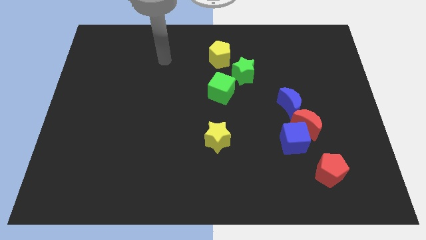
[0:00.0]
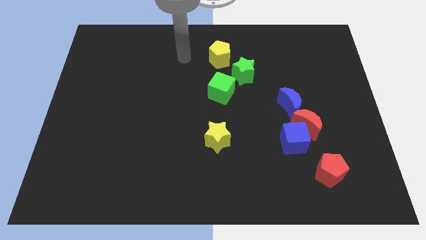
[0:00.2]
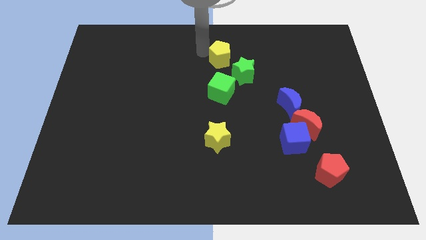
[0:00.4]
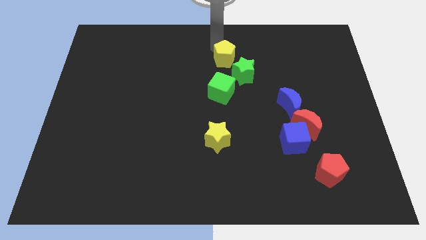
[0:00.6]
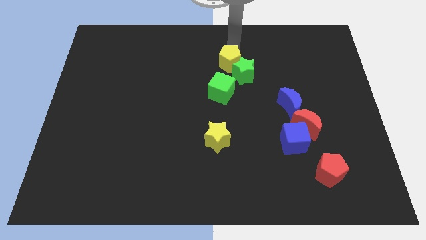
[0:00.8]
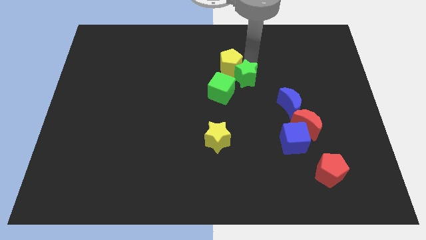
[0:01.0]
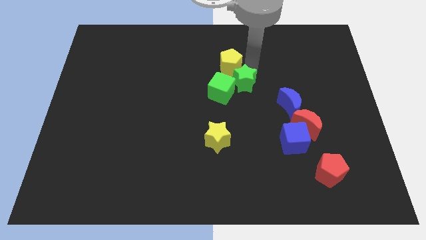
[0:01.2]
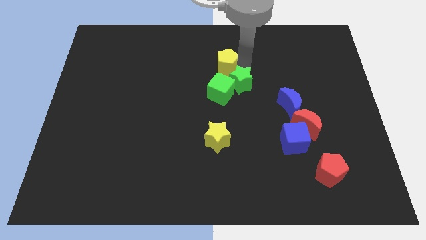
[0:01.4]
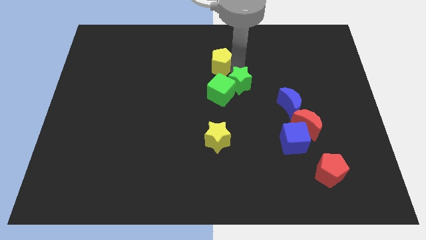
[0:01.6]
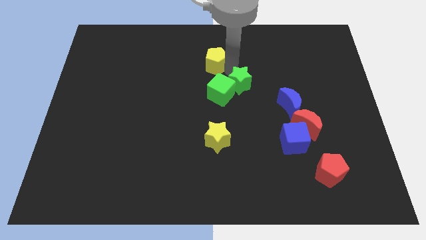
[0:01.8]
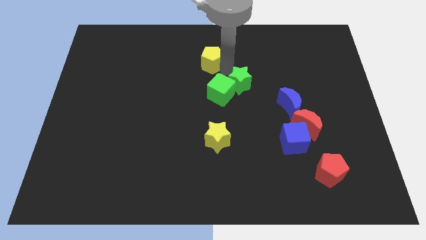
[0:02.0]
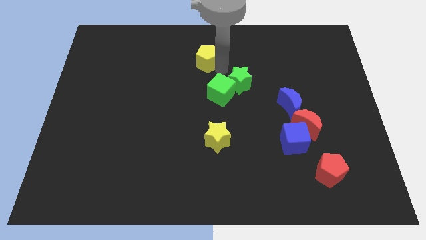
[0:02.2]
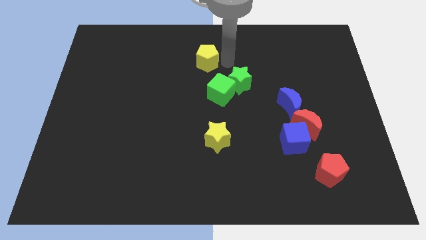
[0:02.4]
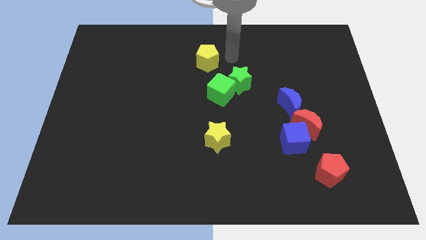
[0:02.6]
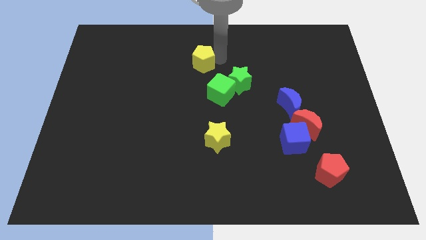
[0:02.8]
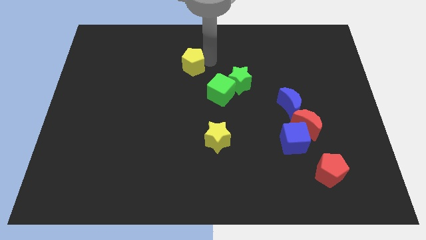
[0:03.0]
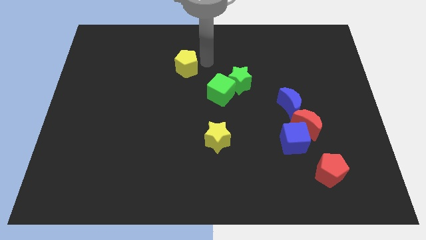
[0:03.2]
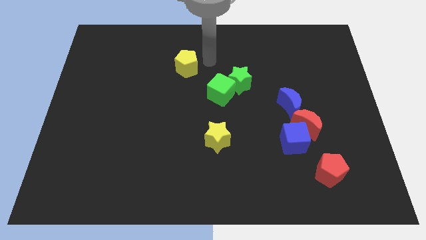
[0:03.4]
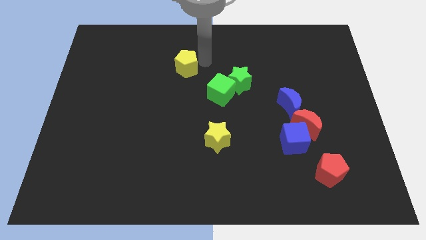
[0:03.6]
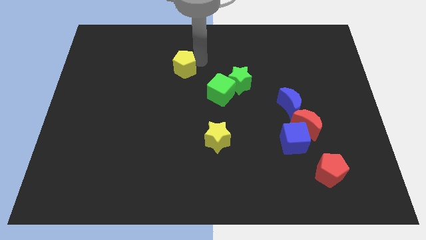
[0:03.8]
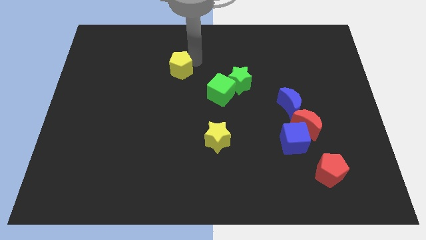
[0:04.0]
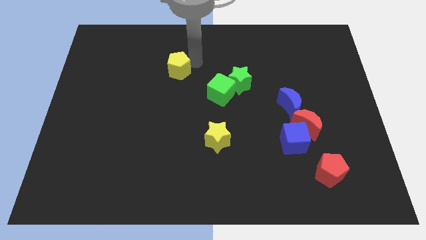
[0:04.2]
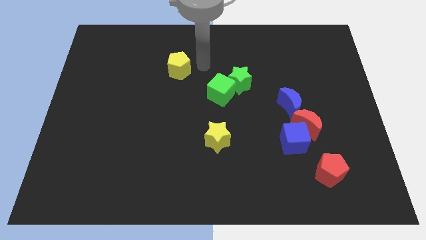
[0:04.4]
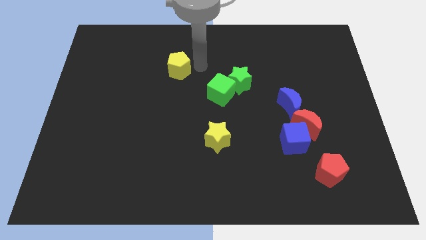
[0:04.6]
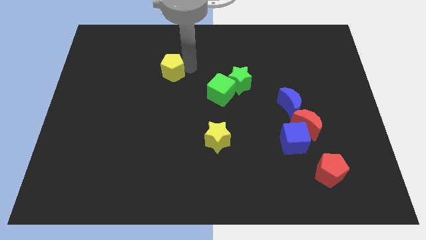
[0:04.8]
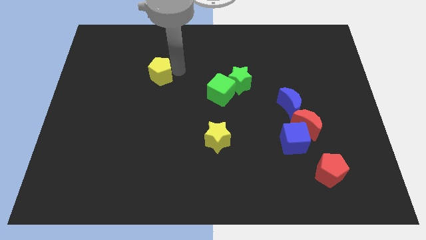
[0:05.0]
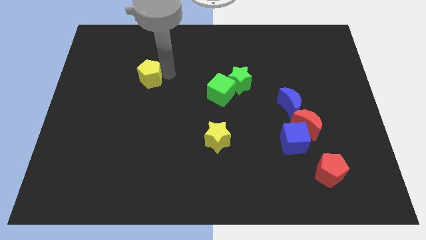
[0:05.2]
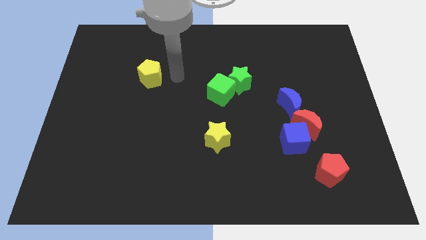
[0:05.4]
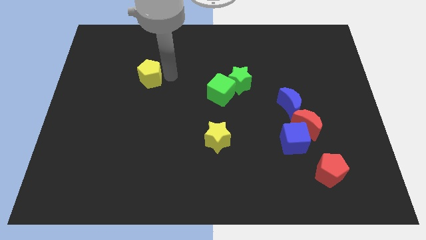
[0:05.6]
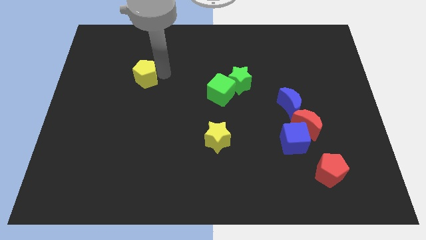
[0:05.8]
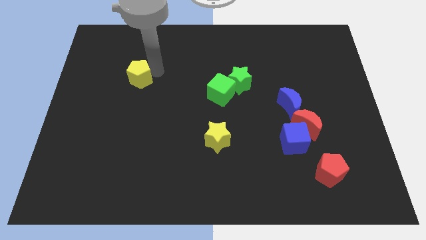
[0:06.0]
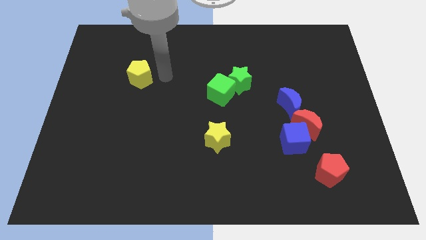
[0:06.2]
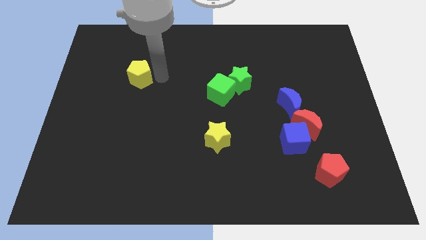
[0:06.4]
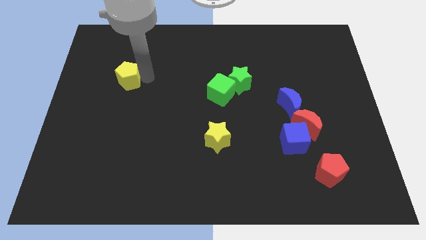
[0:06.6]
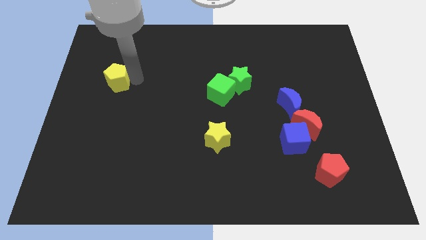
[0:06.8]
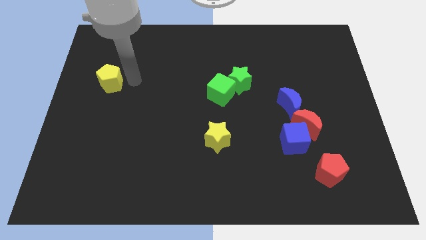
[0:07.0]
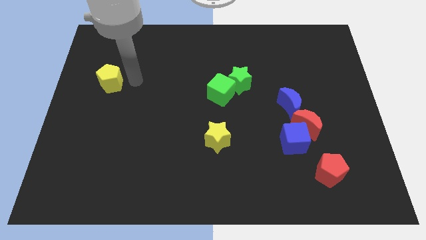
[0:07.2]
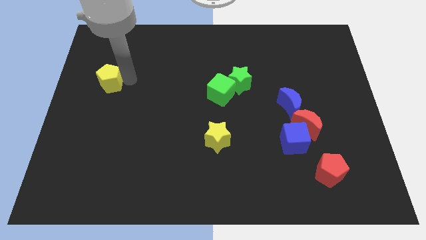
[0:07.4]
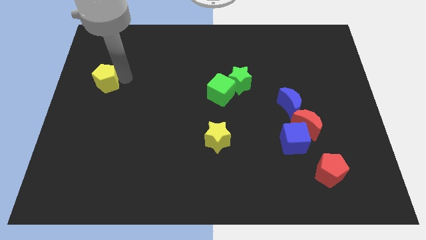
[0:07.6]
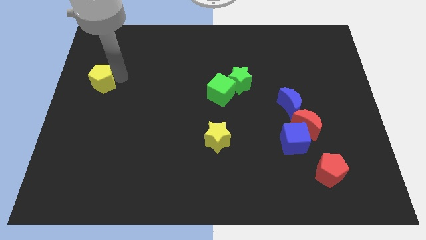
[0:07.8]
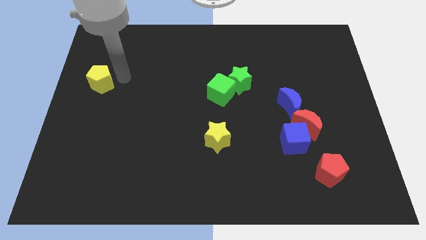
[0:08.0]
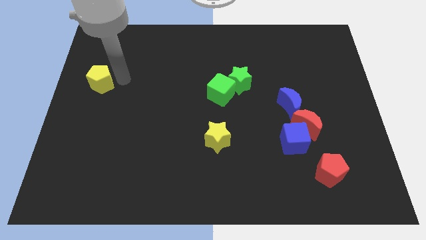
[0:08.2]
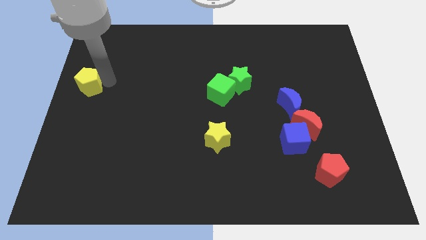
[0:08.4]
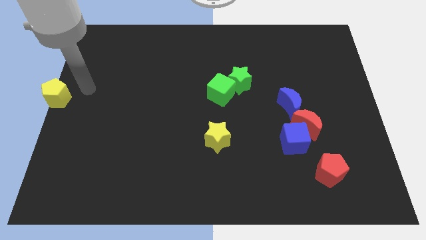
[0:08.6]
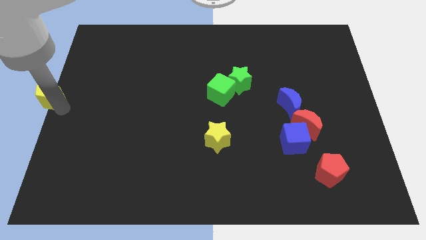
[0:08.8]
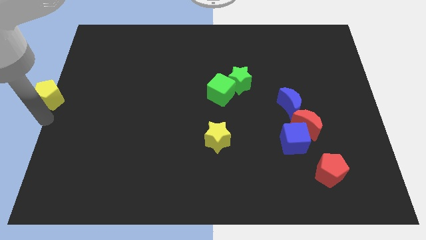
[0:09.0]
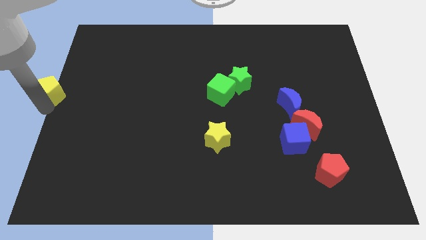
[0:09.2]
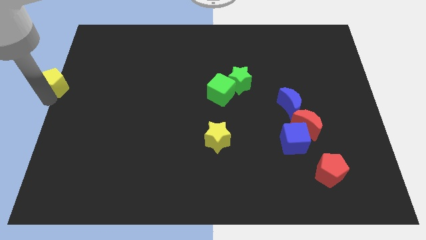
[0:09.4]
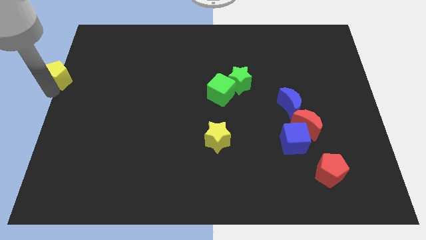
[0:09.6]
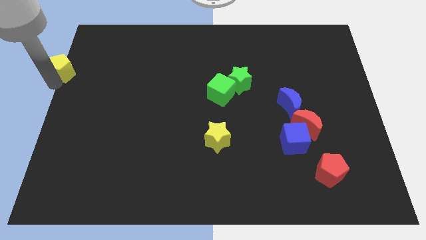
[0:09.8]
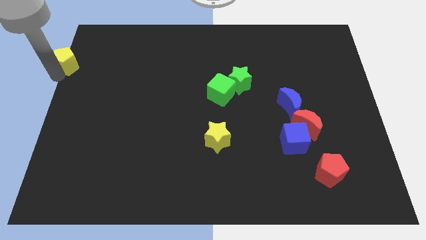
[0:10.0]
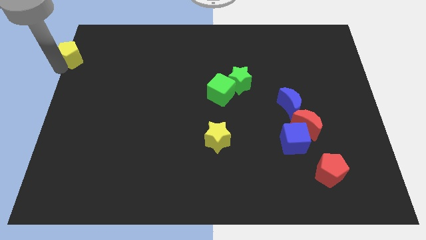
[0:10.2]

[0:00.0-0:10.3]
push the yellow pentagon to the top left corner
